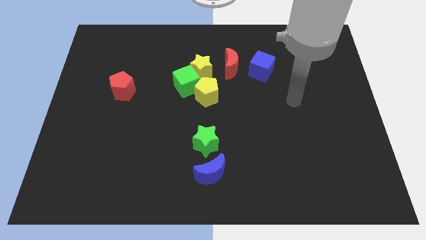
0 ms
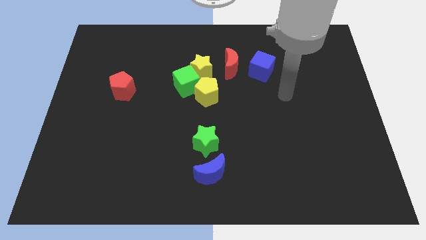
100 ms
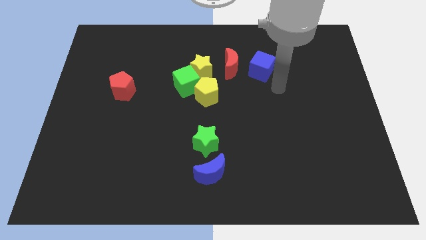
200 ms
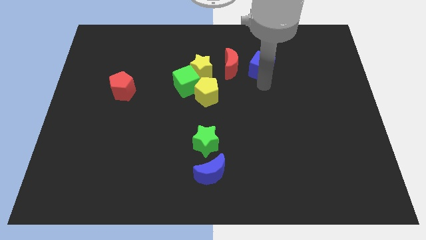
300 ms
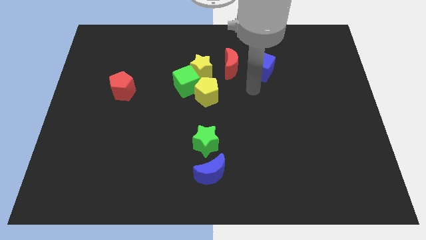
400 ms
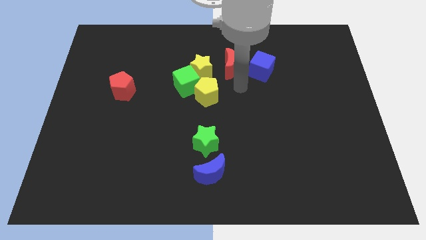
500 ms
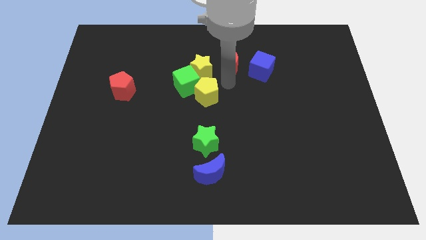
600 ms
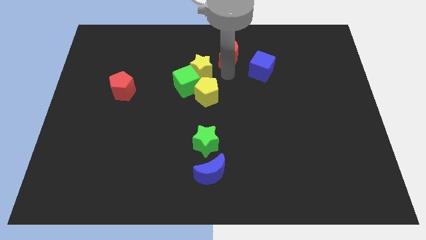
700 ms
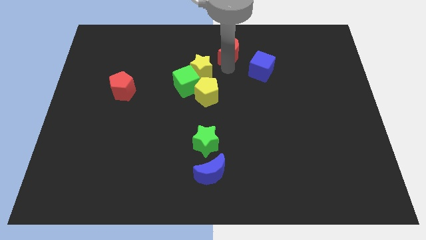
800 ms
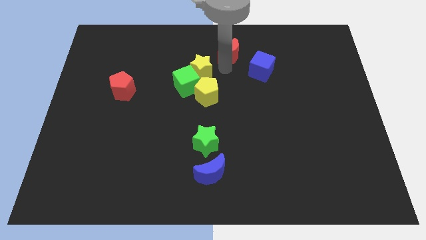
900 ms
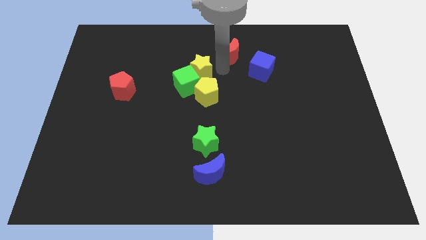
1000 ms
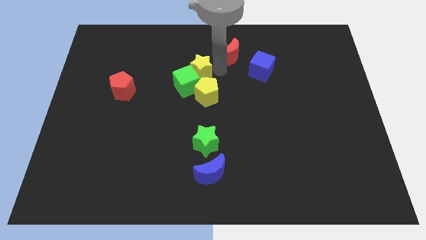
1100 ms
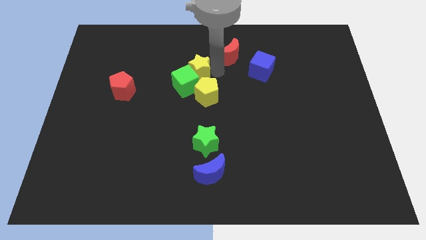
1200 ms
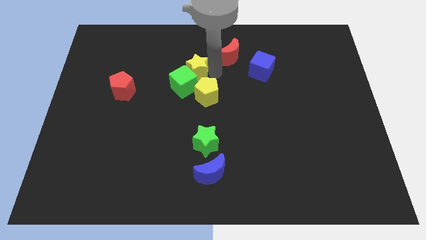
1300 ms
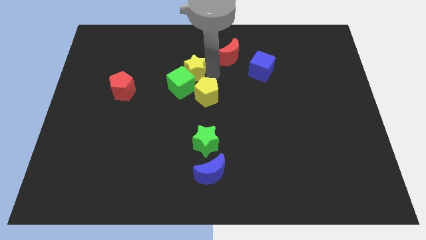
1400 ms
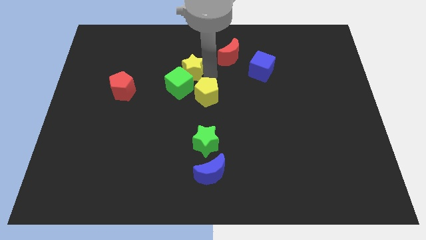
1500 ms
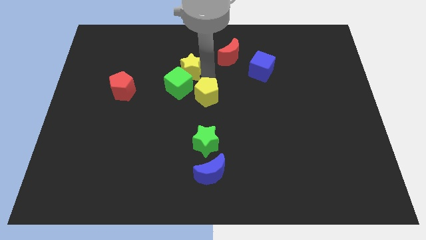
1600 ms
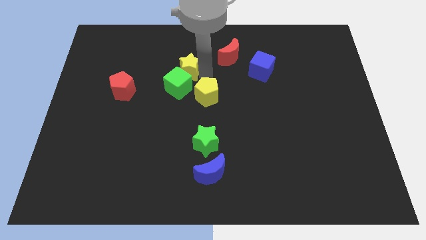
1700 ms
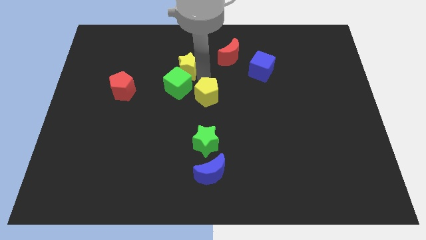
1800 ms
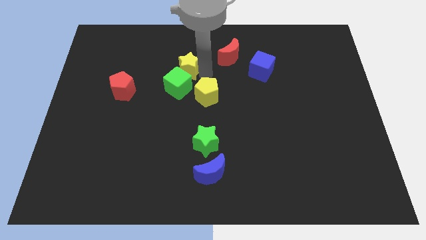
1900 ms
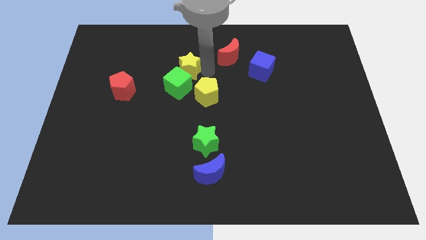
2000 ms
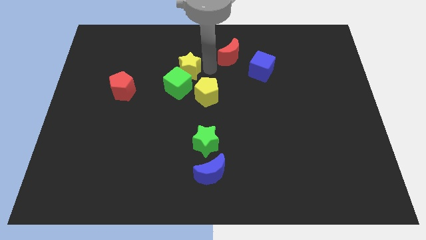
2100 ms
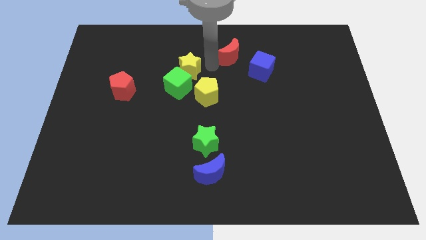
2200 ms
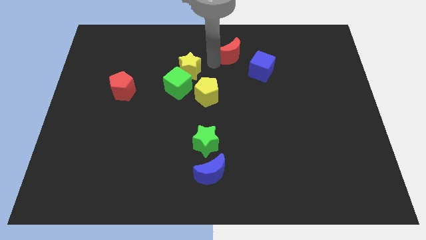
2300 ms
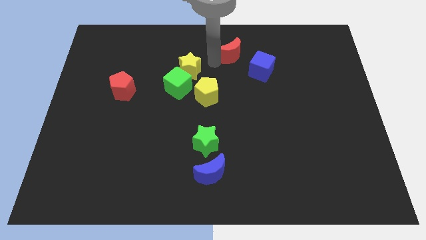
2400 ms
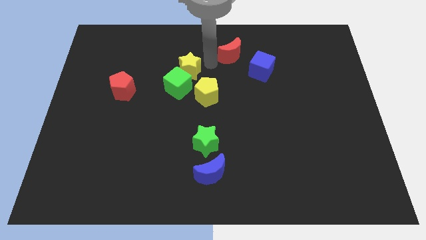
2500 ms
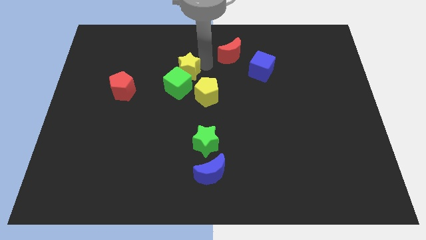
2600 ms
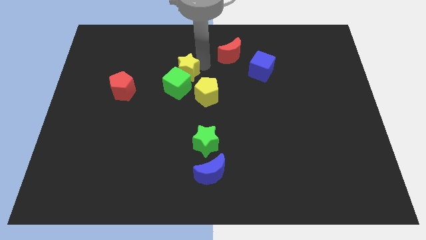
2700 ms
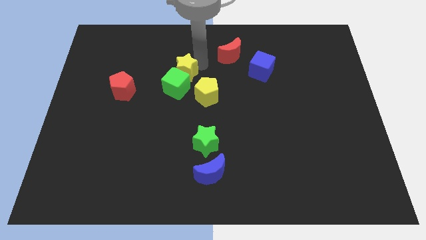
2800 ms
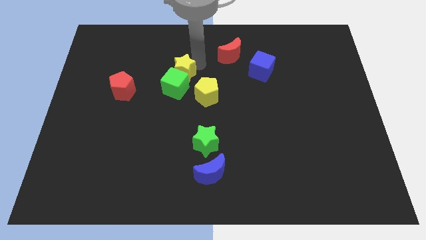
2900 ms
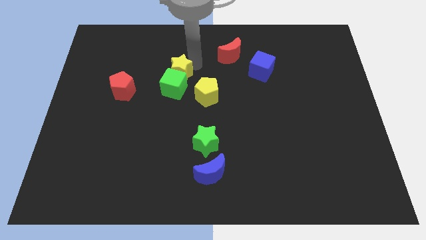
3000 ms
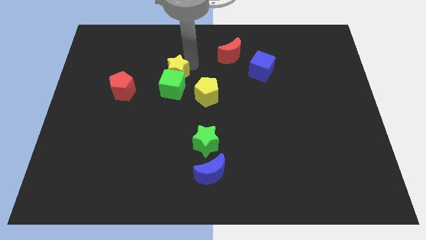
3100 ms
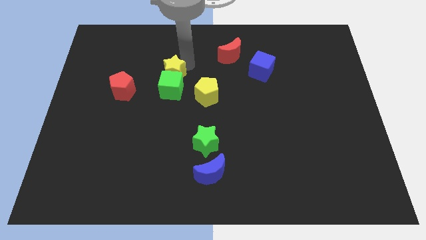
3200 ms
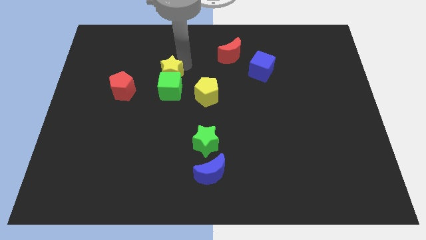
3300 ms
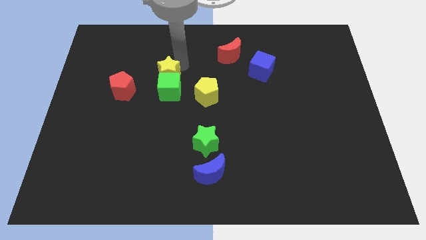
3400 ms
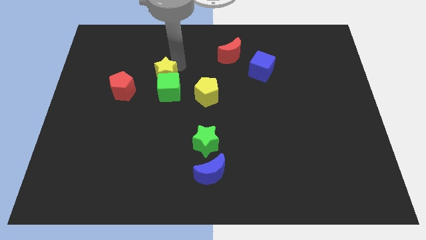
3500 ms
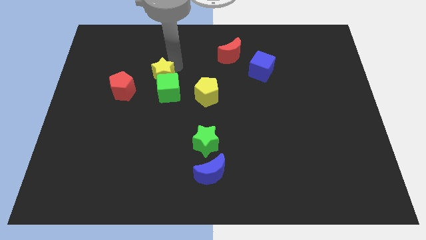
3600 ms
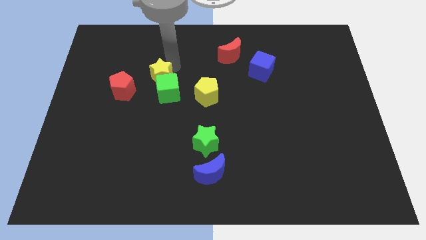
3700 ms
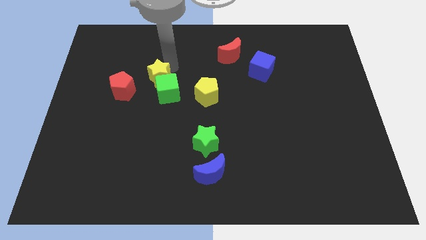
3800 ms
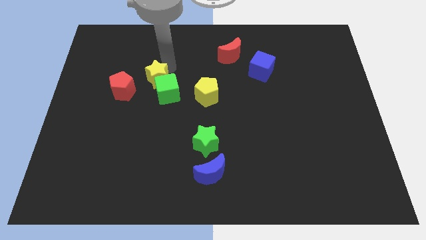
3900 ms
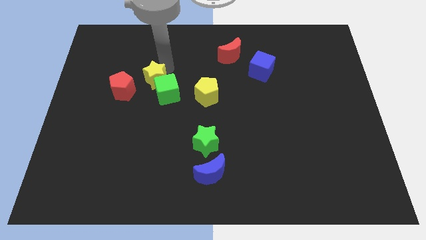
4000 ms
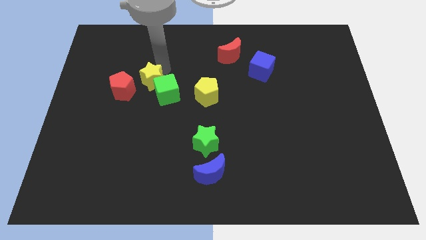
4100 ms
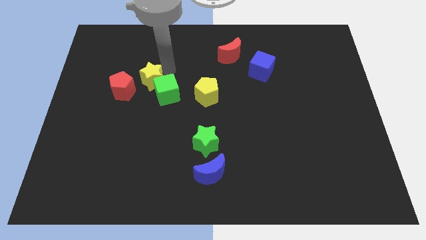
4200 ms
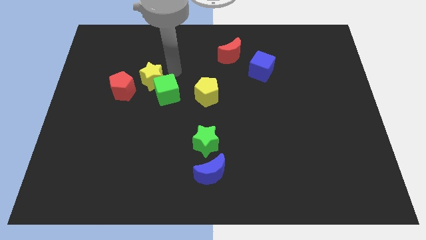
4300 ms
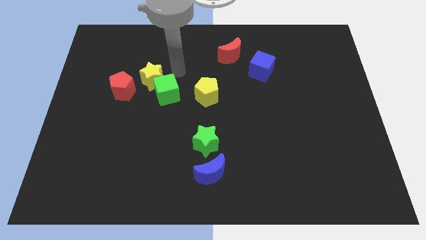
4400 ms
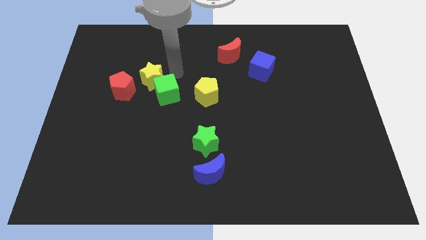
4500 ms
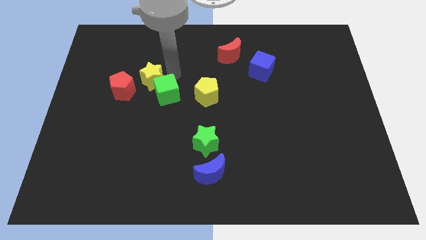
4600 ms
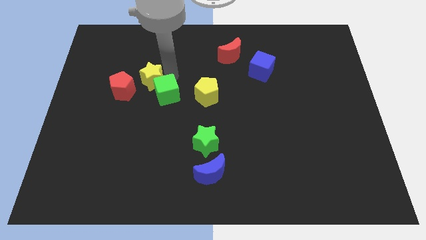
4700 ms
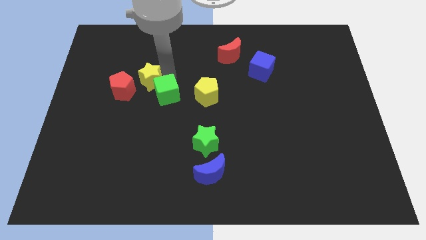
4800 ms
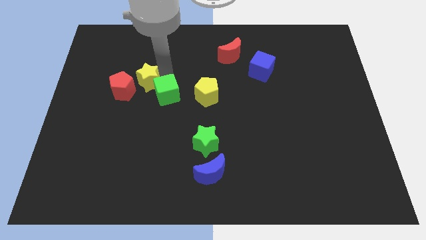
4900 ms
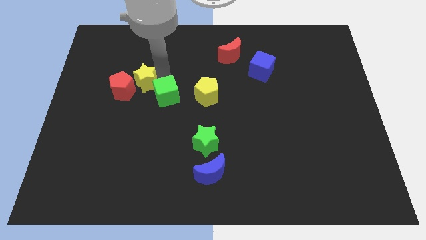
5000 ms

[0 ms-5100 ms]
push the yellow star close to the red pentagon

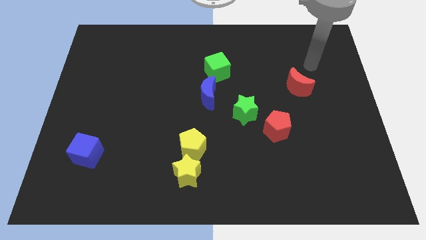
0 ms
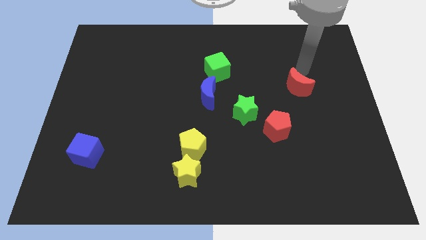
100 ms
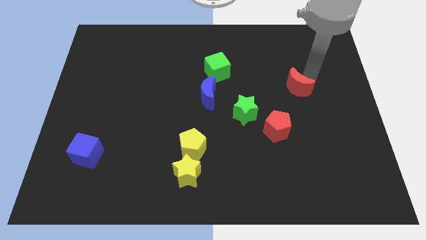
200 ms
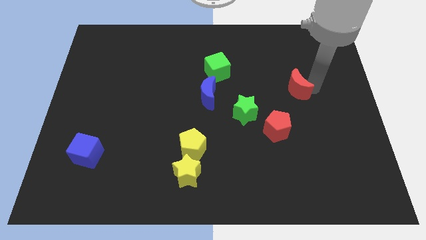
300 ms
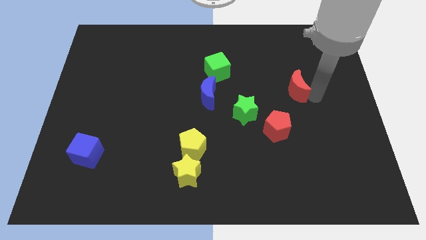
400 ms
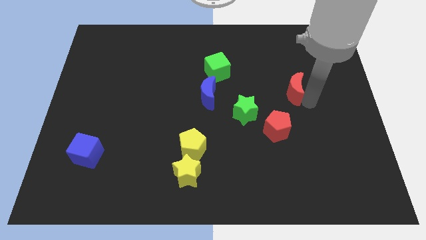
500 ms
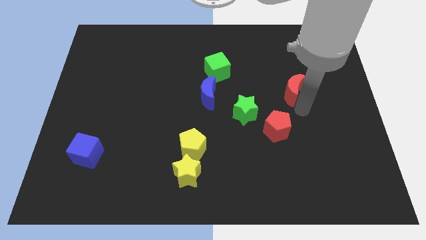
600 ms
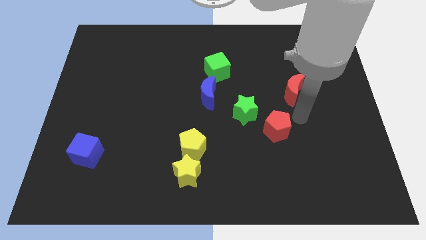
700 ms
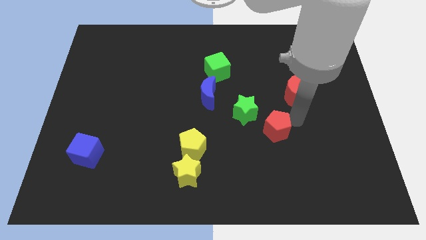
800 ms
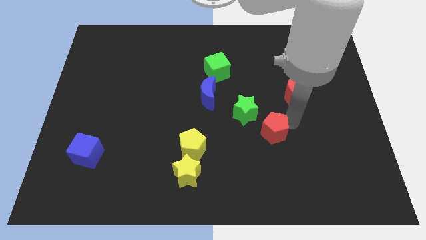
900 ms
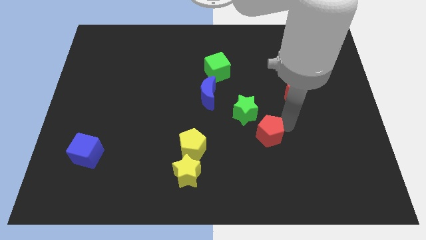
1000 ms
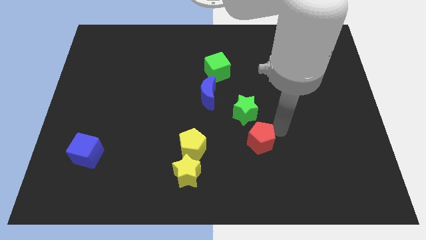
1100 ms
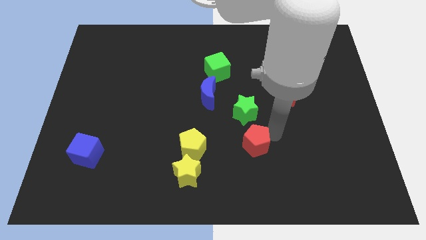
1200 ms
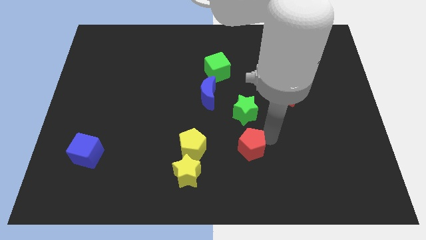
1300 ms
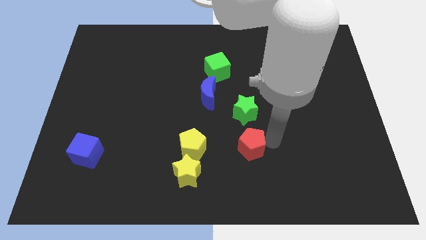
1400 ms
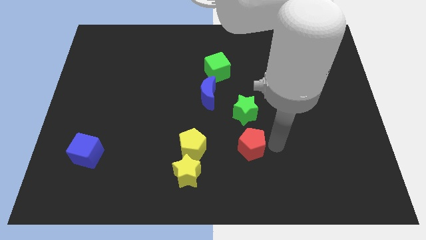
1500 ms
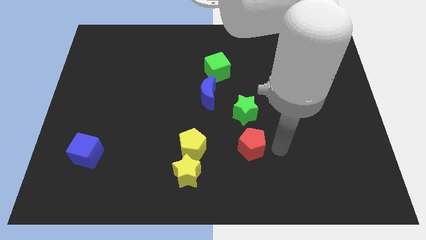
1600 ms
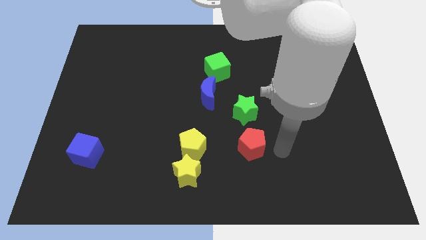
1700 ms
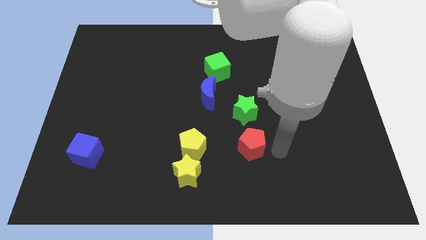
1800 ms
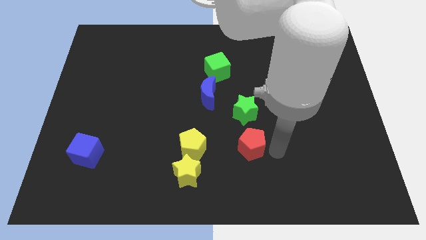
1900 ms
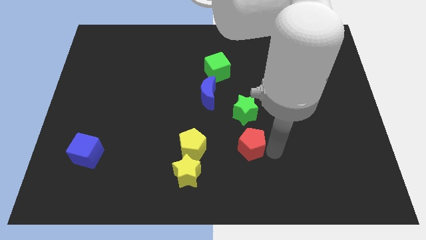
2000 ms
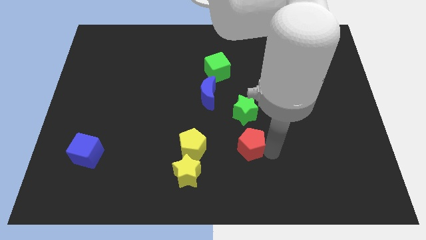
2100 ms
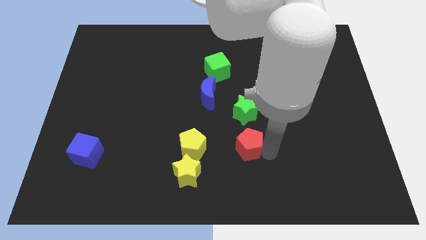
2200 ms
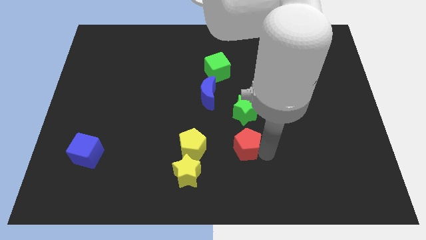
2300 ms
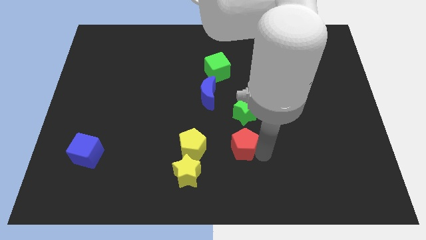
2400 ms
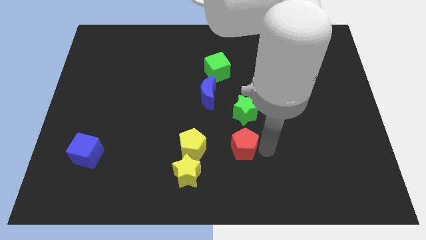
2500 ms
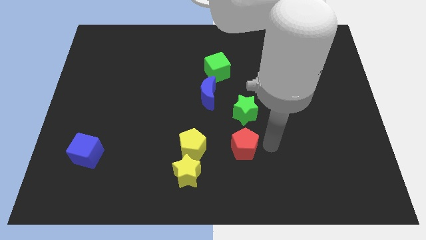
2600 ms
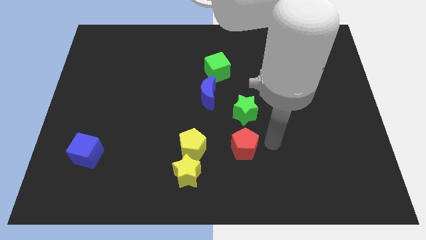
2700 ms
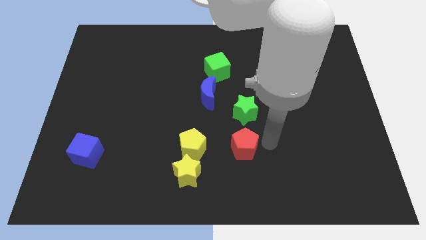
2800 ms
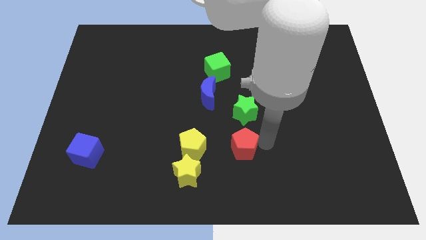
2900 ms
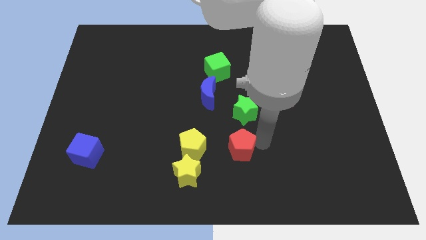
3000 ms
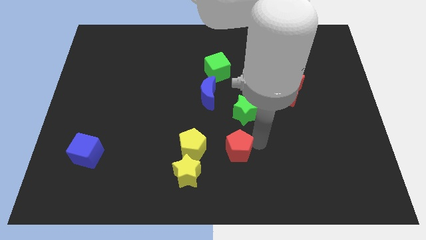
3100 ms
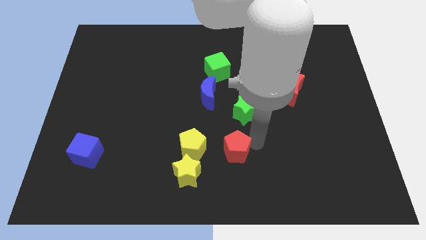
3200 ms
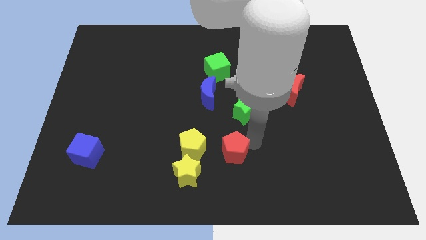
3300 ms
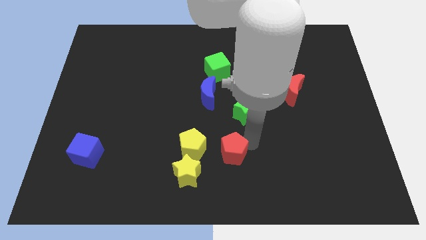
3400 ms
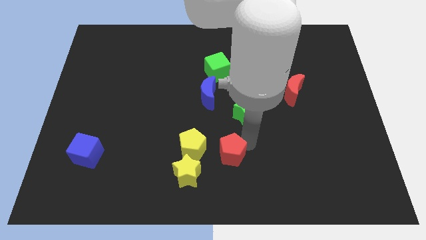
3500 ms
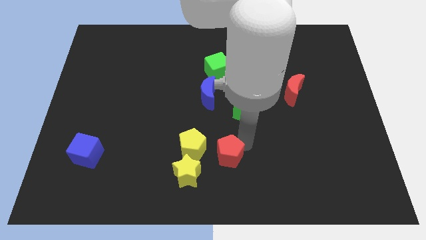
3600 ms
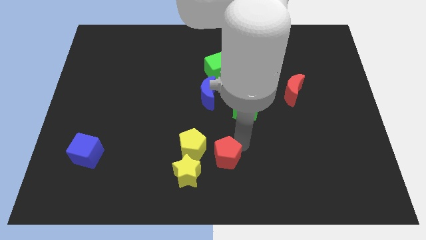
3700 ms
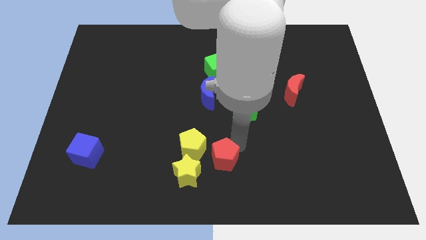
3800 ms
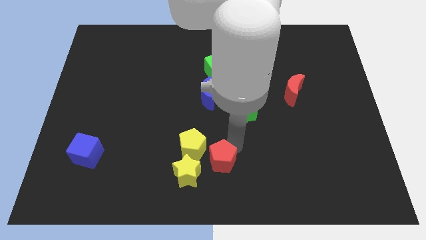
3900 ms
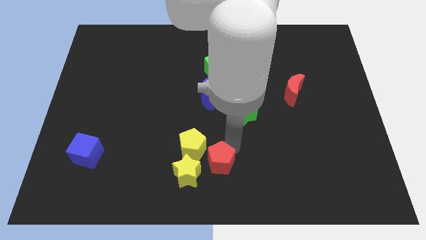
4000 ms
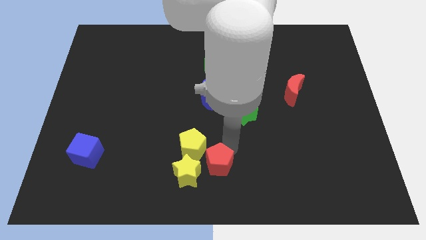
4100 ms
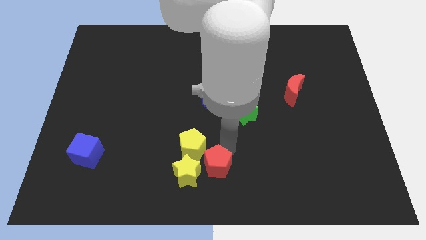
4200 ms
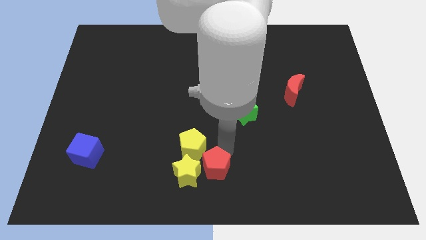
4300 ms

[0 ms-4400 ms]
slide the red pentagon towards the yellow star
